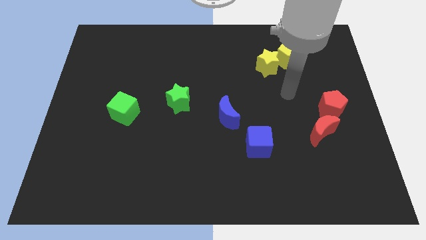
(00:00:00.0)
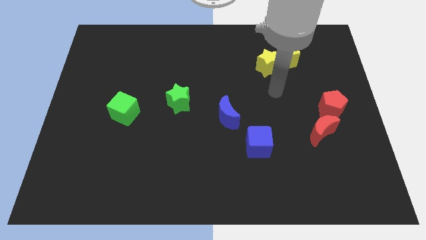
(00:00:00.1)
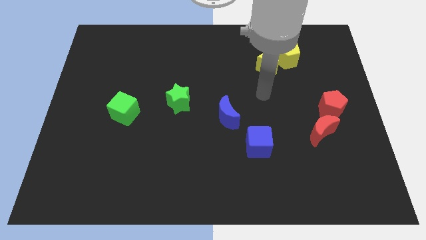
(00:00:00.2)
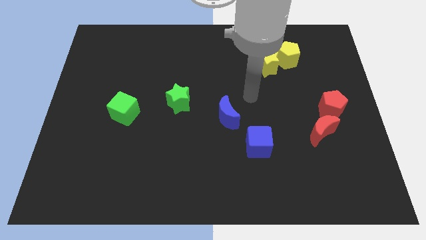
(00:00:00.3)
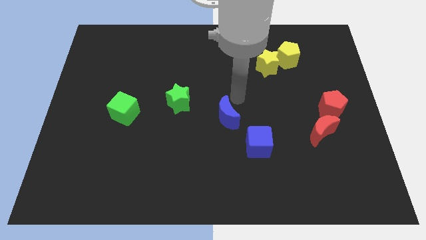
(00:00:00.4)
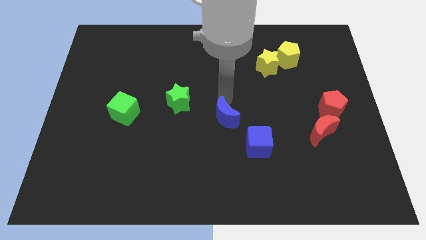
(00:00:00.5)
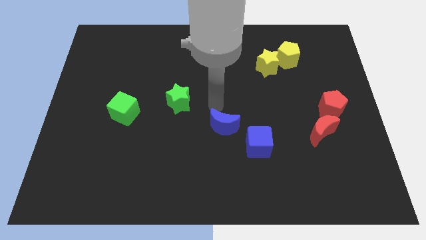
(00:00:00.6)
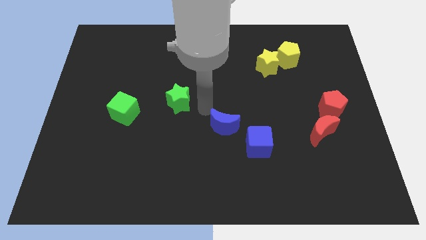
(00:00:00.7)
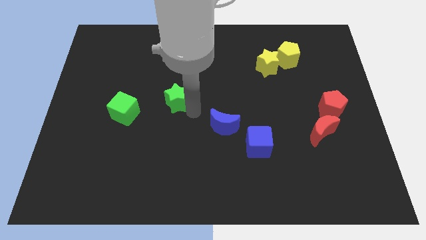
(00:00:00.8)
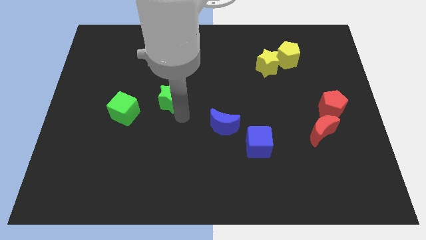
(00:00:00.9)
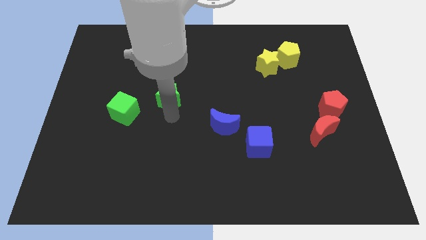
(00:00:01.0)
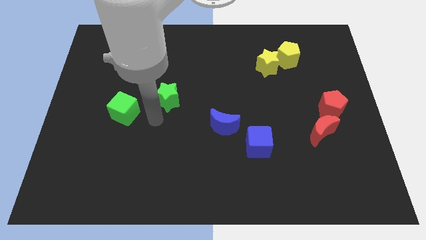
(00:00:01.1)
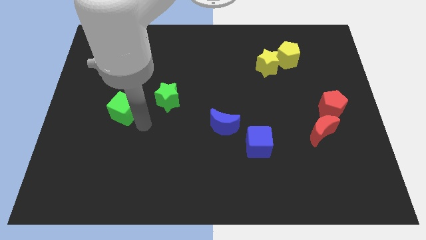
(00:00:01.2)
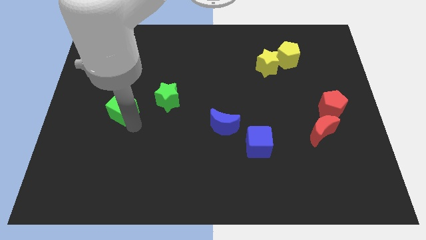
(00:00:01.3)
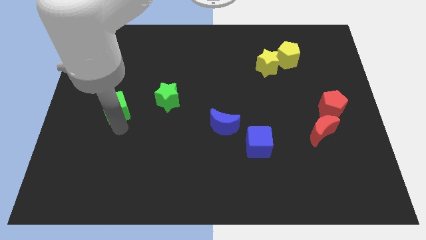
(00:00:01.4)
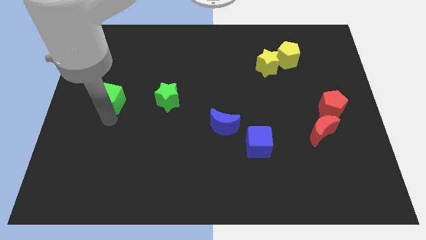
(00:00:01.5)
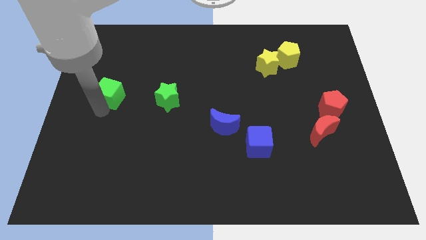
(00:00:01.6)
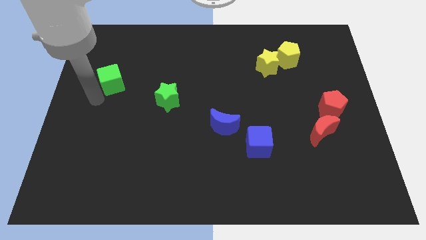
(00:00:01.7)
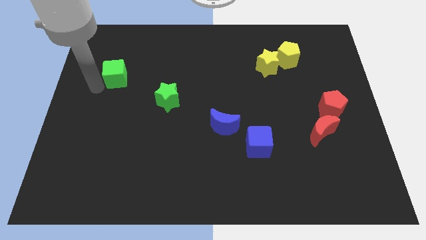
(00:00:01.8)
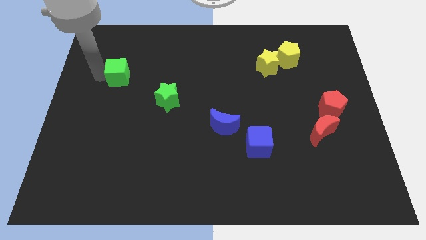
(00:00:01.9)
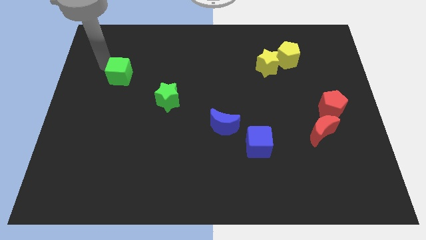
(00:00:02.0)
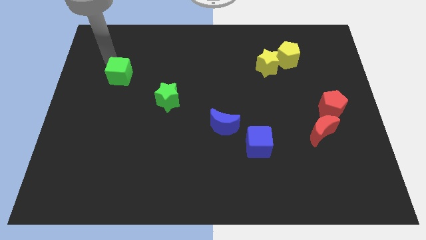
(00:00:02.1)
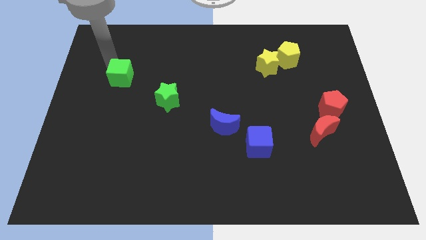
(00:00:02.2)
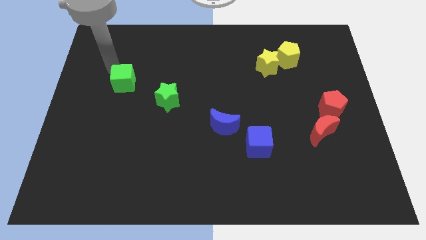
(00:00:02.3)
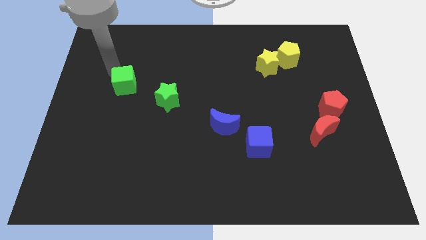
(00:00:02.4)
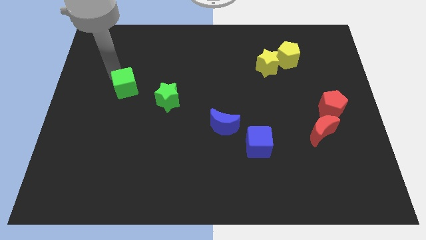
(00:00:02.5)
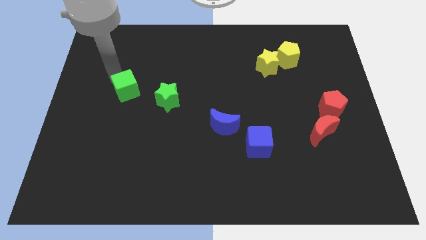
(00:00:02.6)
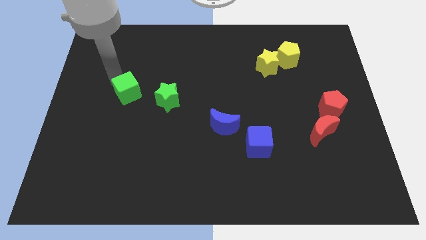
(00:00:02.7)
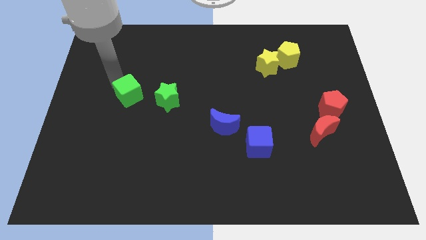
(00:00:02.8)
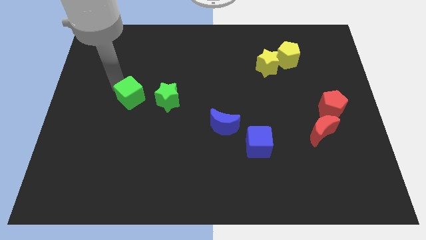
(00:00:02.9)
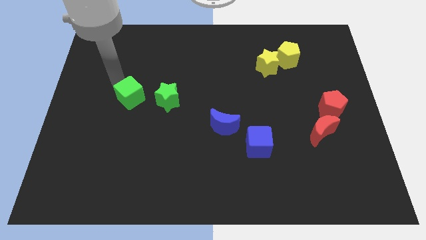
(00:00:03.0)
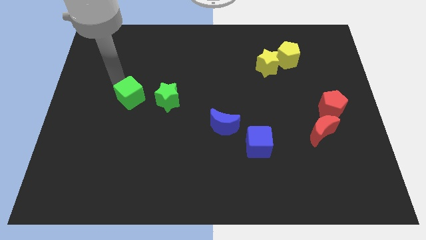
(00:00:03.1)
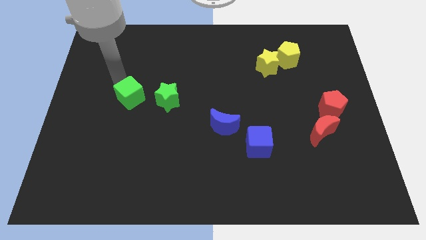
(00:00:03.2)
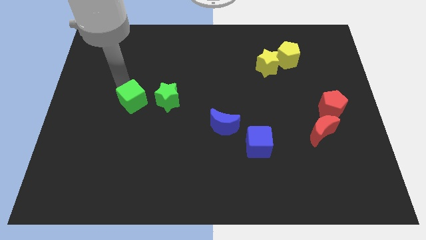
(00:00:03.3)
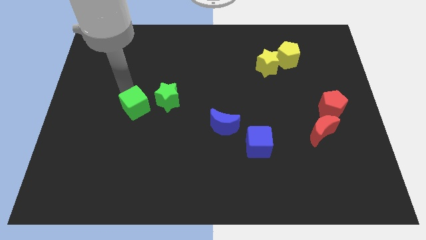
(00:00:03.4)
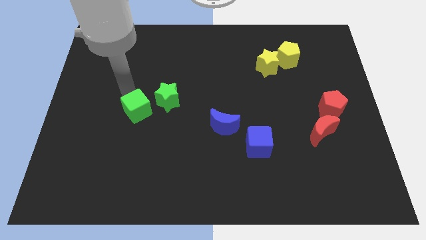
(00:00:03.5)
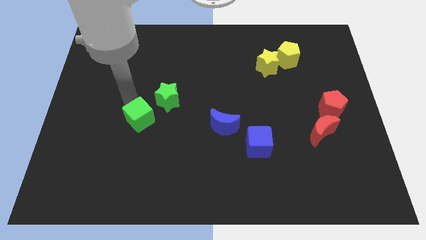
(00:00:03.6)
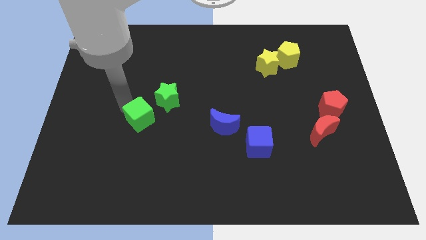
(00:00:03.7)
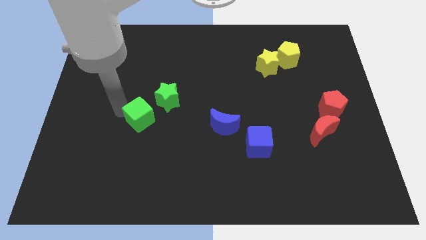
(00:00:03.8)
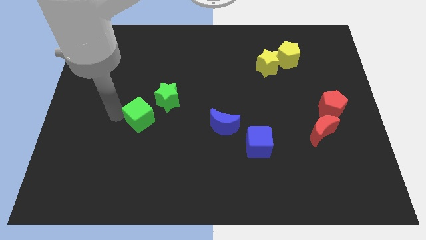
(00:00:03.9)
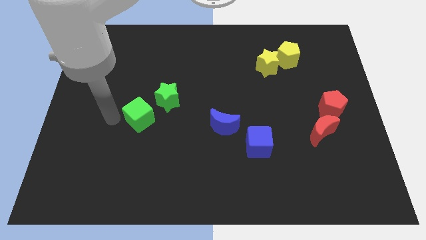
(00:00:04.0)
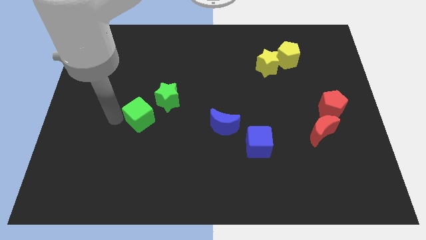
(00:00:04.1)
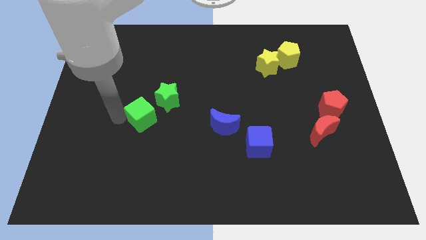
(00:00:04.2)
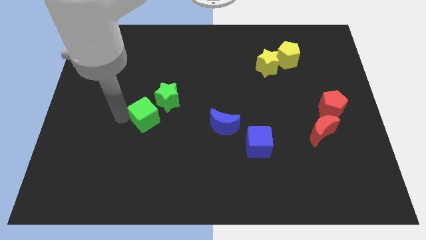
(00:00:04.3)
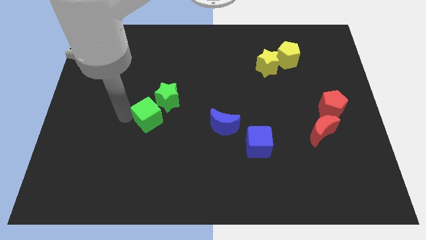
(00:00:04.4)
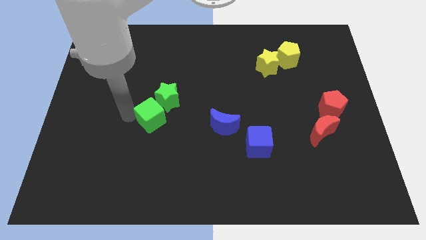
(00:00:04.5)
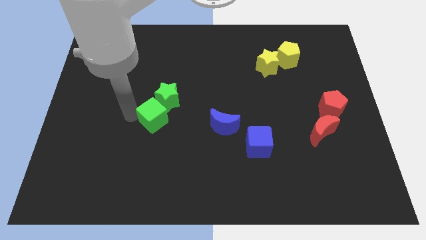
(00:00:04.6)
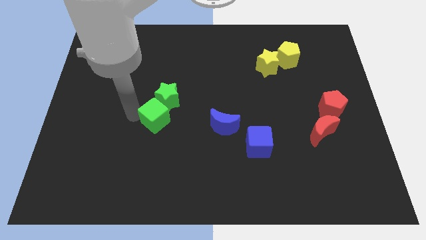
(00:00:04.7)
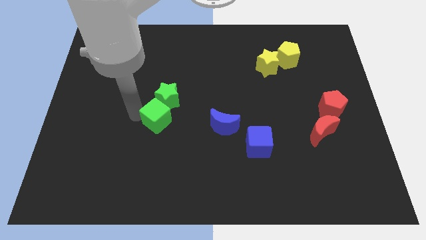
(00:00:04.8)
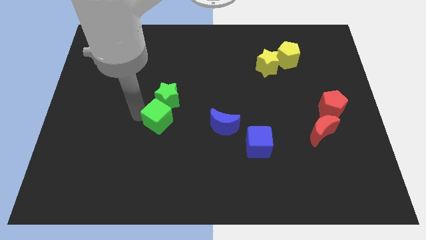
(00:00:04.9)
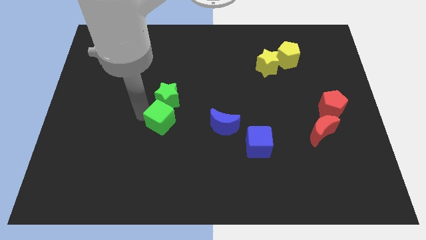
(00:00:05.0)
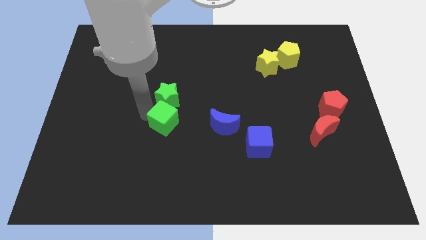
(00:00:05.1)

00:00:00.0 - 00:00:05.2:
slide the green cube to the center of the board

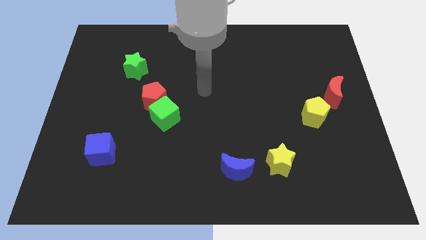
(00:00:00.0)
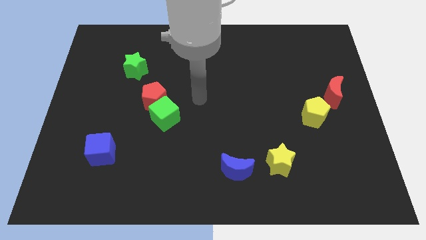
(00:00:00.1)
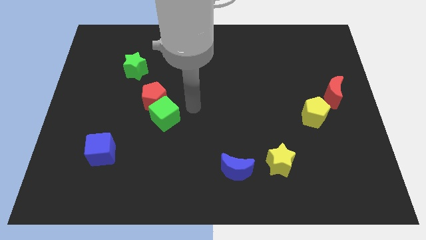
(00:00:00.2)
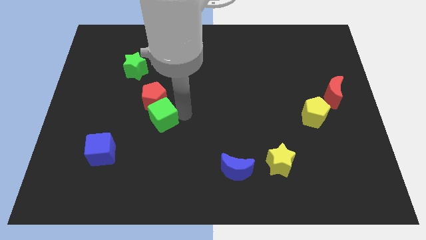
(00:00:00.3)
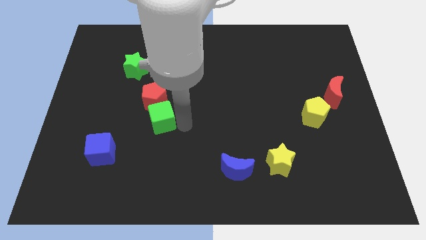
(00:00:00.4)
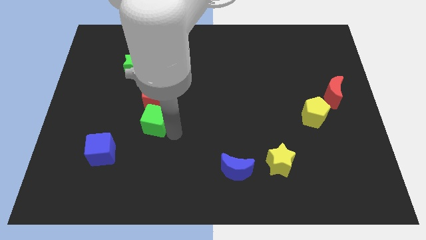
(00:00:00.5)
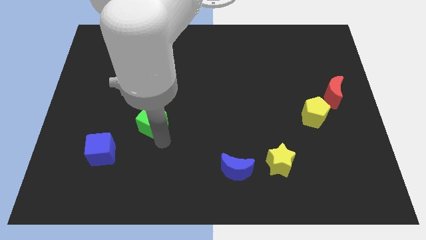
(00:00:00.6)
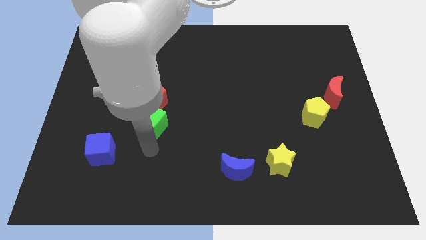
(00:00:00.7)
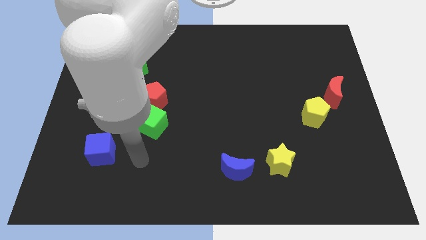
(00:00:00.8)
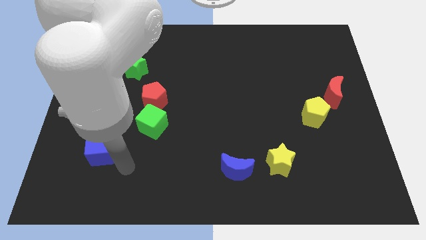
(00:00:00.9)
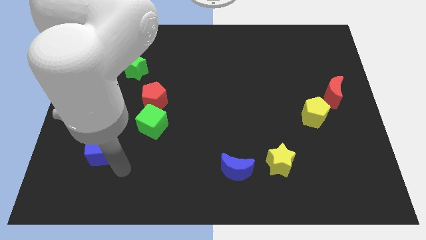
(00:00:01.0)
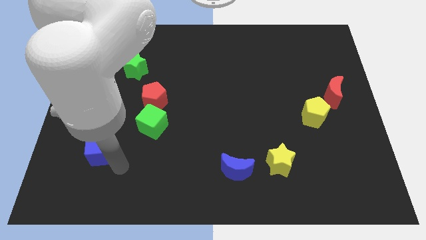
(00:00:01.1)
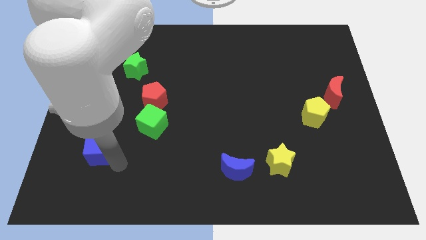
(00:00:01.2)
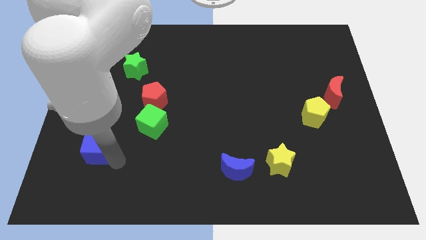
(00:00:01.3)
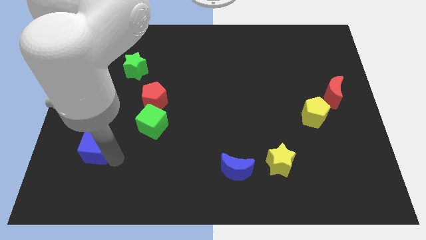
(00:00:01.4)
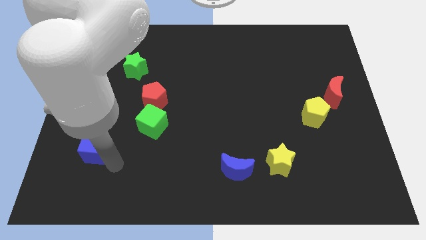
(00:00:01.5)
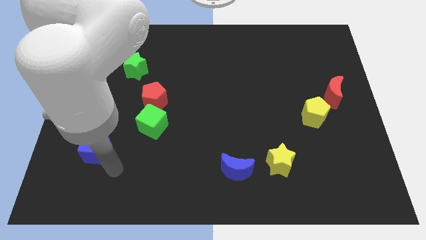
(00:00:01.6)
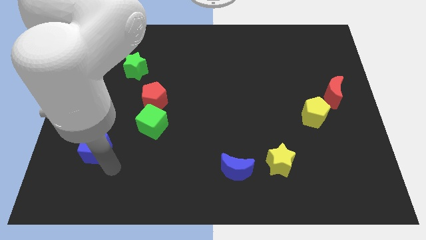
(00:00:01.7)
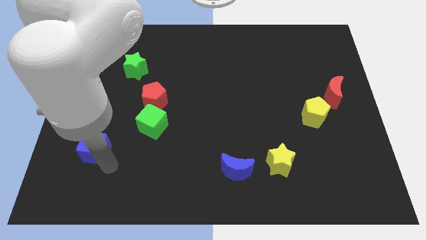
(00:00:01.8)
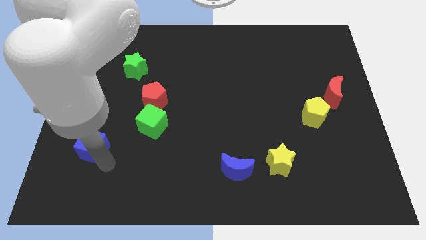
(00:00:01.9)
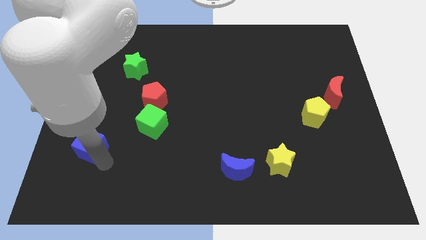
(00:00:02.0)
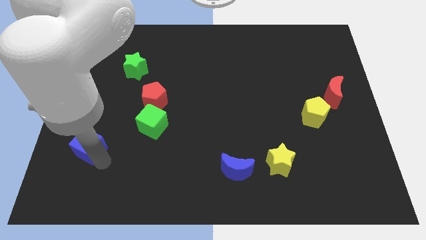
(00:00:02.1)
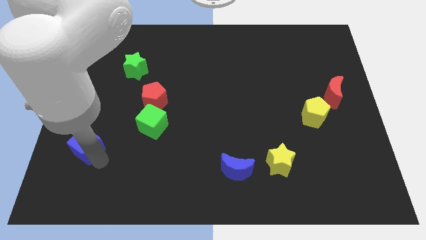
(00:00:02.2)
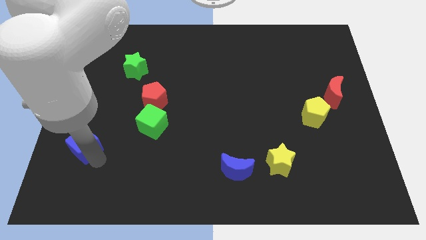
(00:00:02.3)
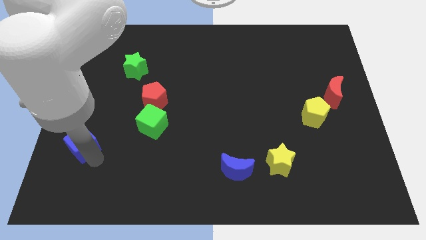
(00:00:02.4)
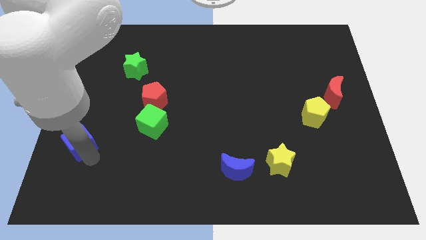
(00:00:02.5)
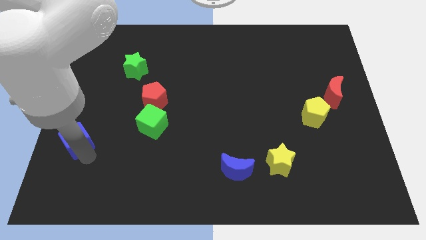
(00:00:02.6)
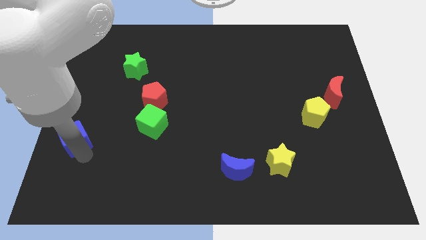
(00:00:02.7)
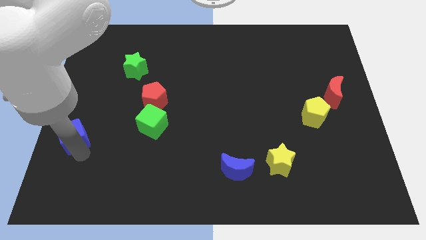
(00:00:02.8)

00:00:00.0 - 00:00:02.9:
slide the blue cube to the left side of the board
